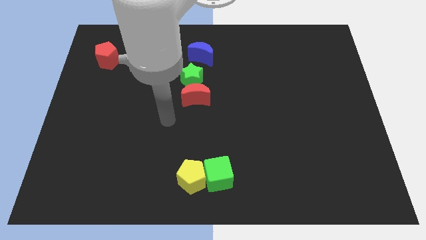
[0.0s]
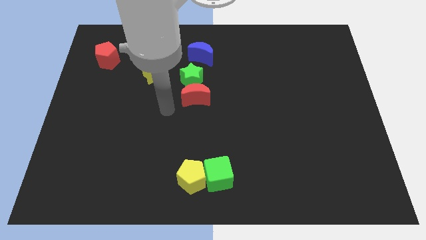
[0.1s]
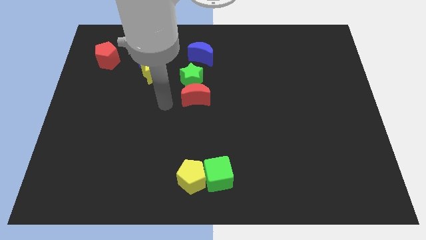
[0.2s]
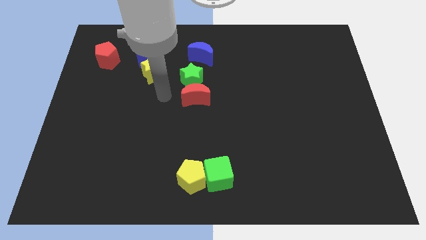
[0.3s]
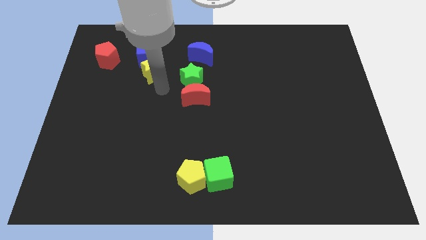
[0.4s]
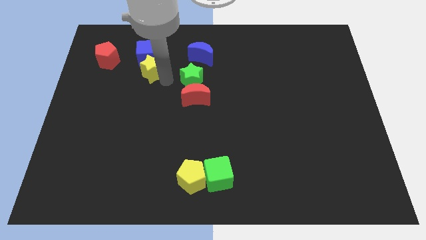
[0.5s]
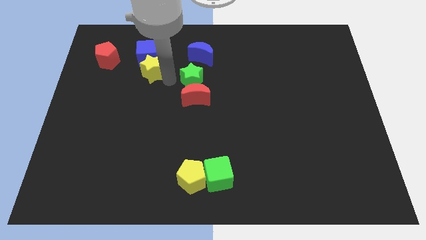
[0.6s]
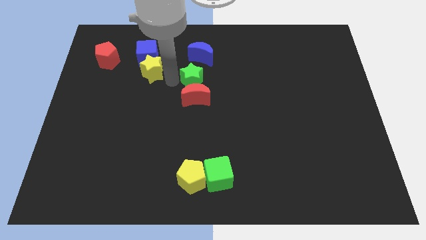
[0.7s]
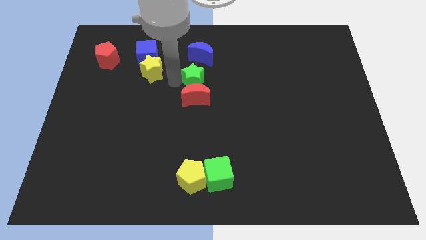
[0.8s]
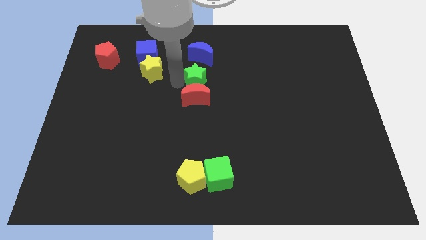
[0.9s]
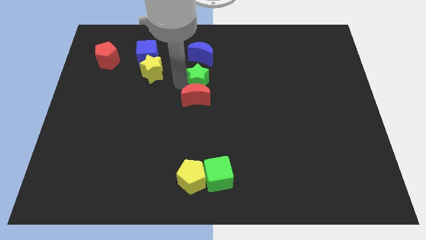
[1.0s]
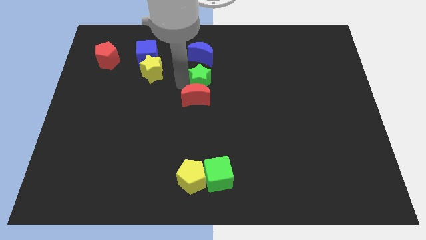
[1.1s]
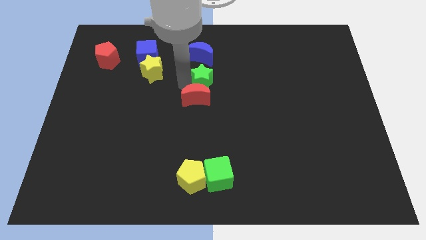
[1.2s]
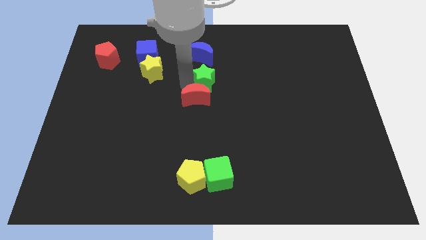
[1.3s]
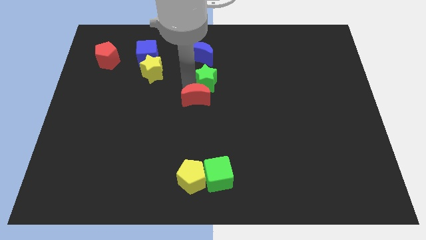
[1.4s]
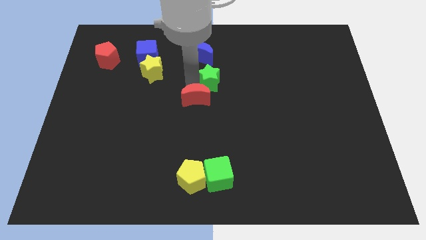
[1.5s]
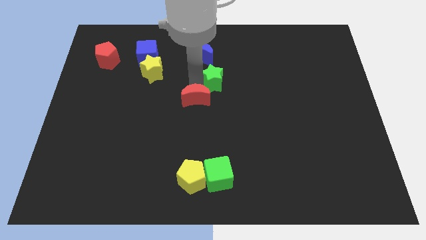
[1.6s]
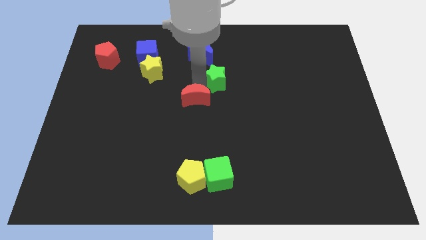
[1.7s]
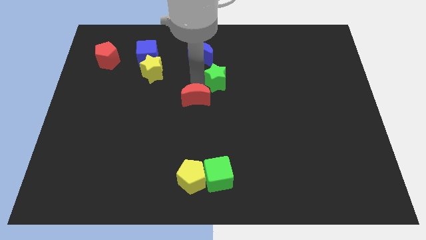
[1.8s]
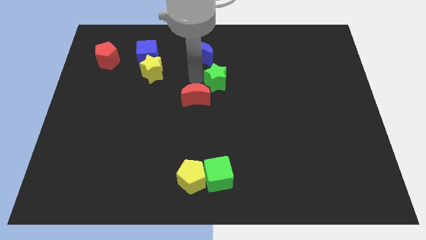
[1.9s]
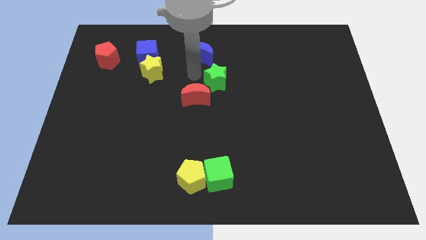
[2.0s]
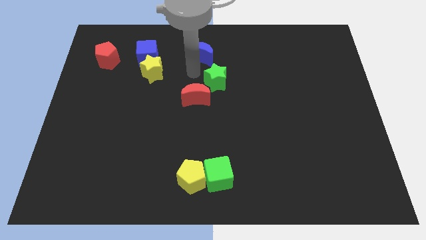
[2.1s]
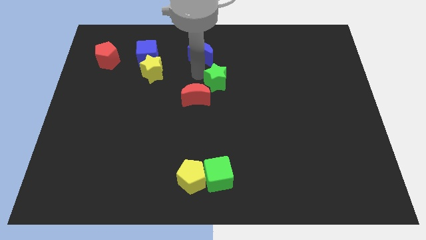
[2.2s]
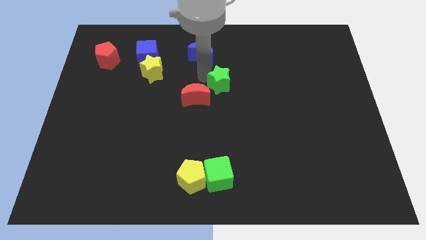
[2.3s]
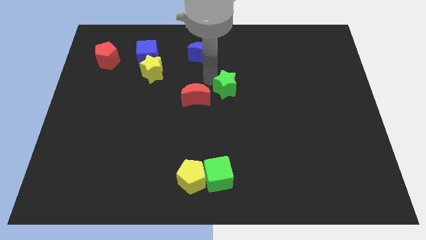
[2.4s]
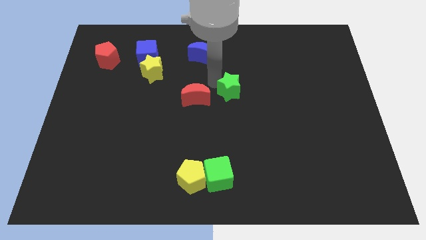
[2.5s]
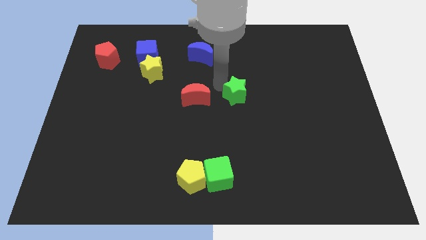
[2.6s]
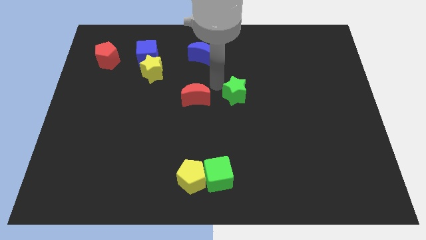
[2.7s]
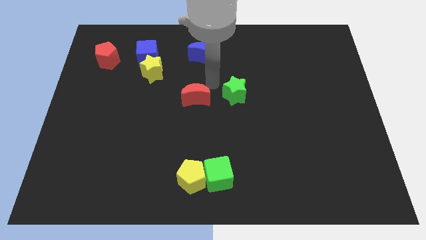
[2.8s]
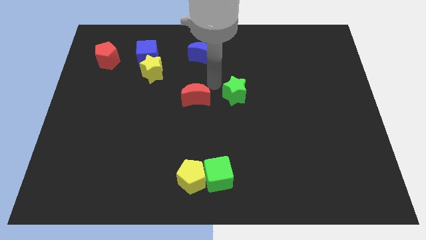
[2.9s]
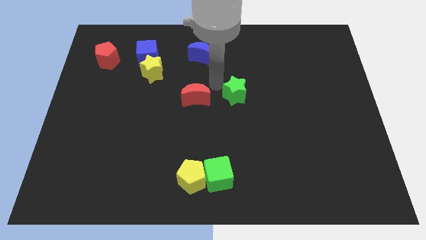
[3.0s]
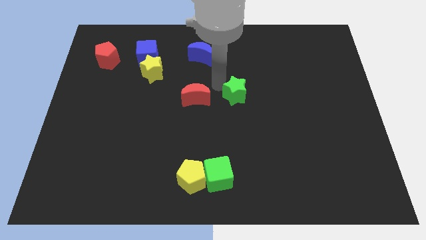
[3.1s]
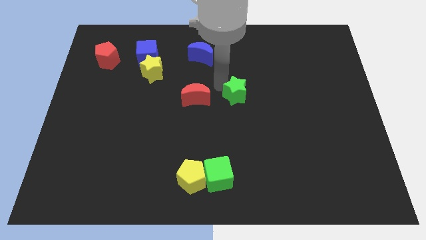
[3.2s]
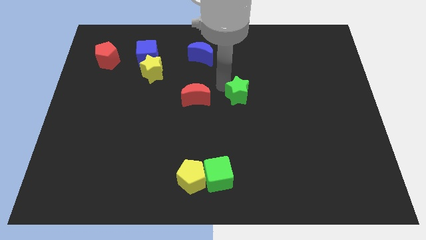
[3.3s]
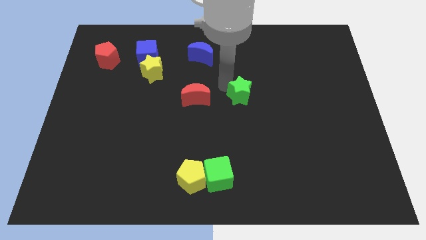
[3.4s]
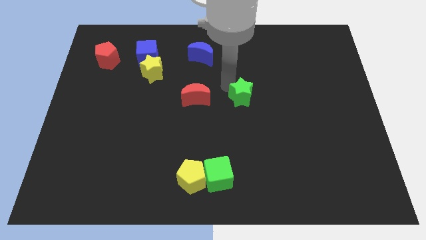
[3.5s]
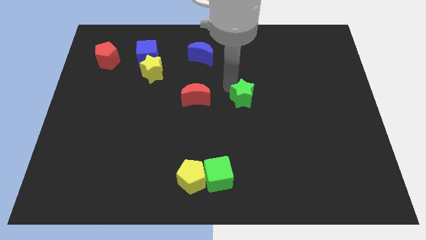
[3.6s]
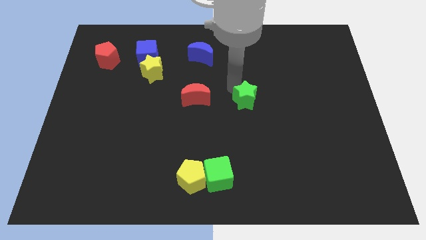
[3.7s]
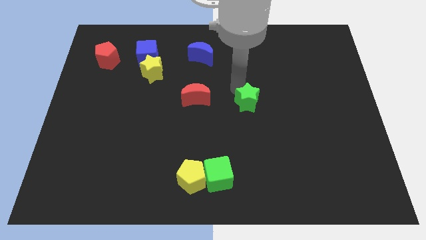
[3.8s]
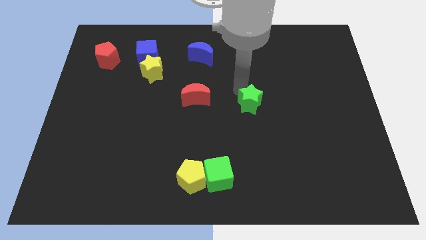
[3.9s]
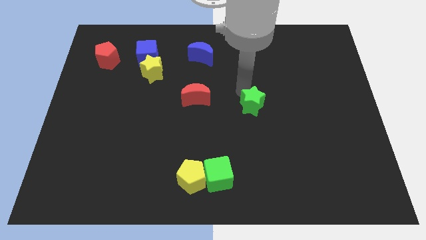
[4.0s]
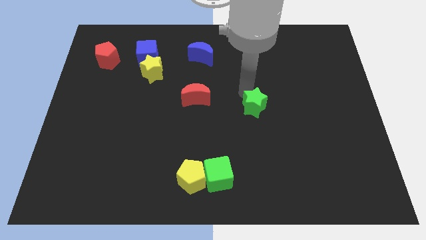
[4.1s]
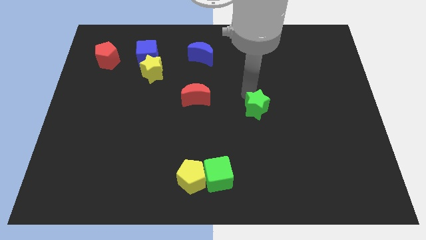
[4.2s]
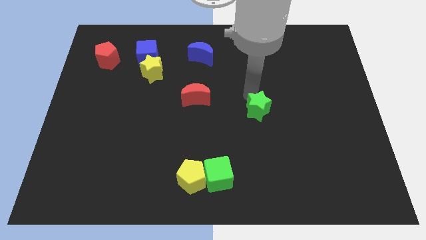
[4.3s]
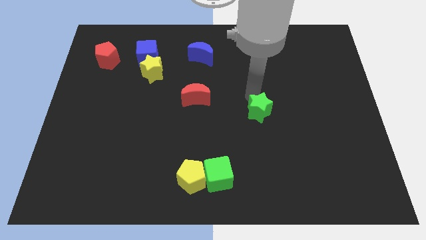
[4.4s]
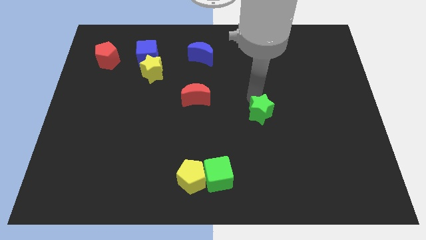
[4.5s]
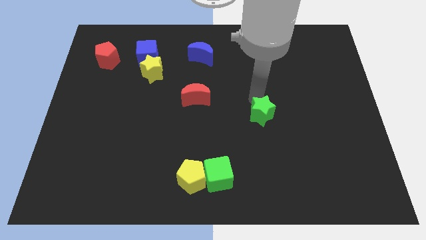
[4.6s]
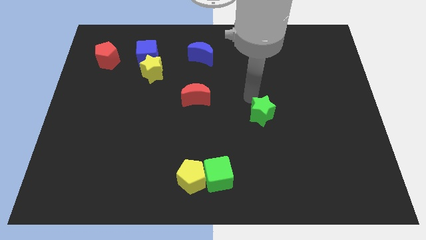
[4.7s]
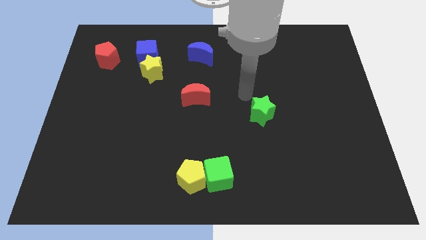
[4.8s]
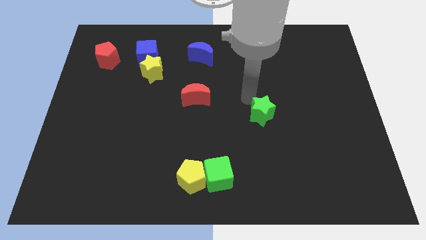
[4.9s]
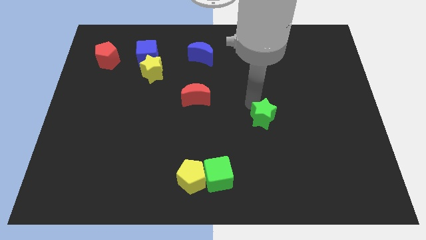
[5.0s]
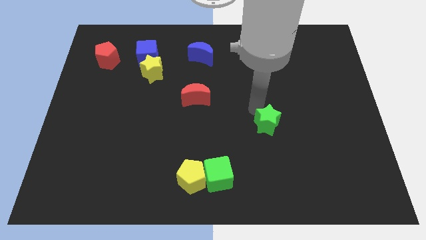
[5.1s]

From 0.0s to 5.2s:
push the green star down and then to the right

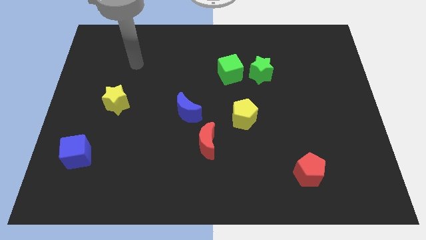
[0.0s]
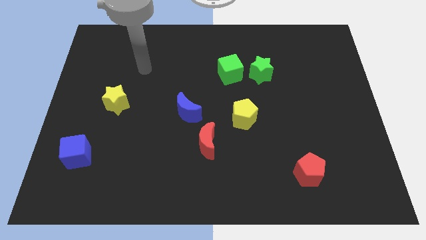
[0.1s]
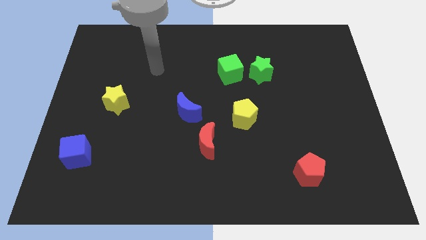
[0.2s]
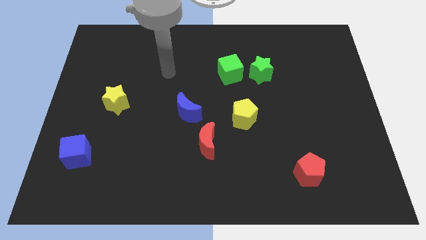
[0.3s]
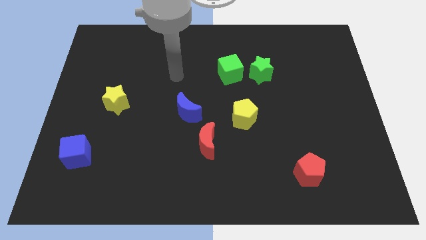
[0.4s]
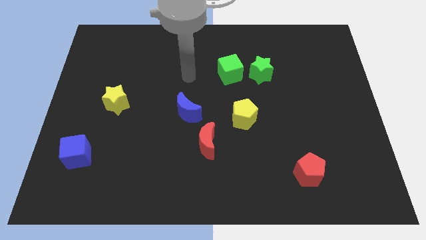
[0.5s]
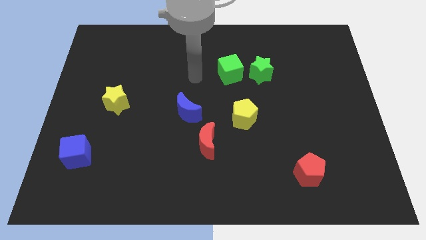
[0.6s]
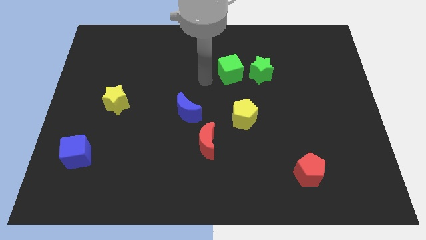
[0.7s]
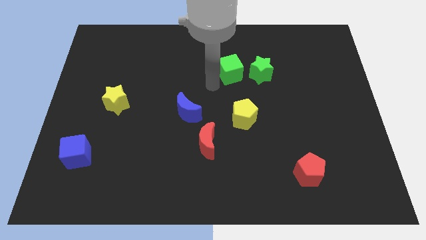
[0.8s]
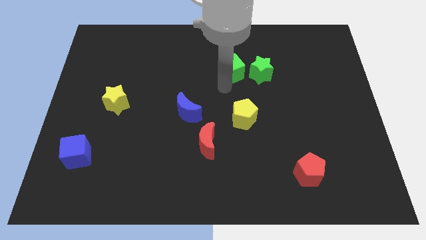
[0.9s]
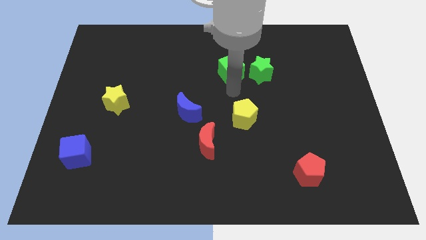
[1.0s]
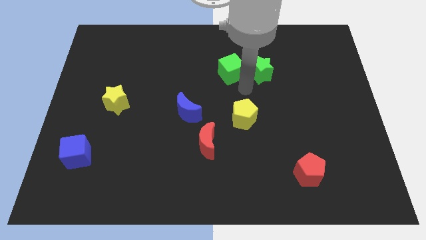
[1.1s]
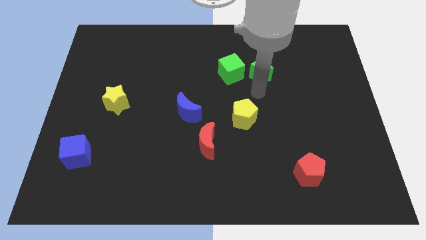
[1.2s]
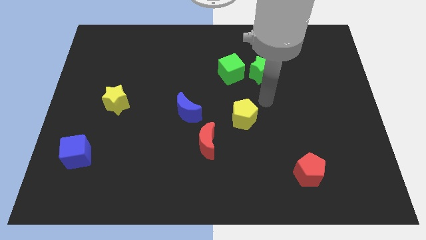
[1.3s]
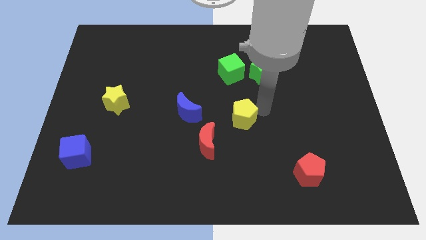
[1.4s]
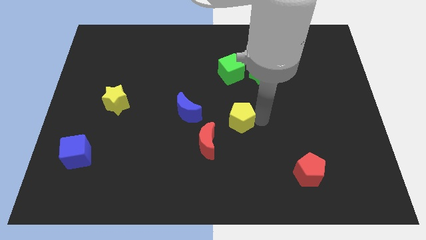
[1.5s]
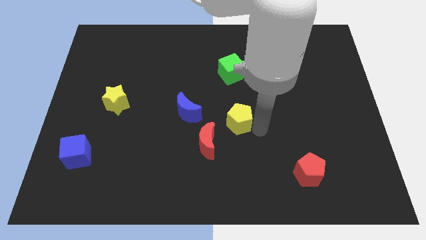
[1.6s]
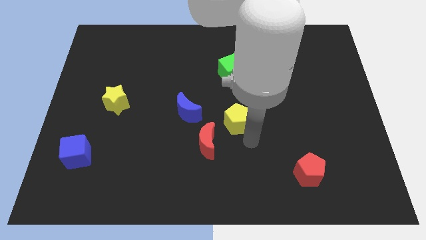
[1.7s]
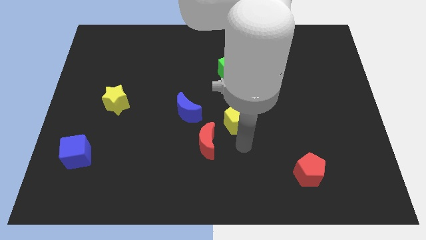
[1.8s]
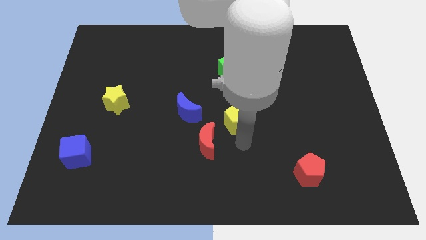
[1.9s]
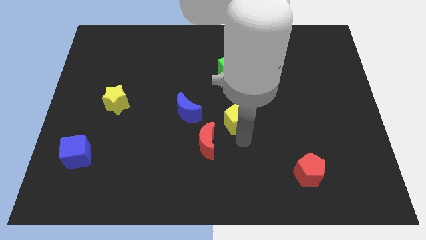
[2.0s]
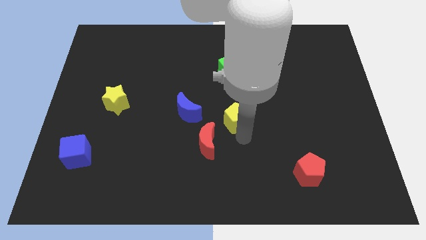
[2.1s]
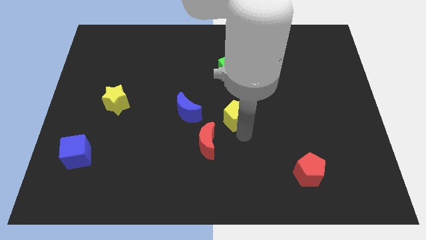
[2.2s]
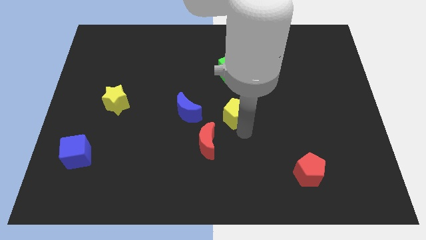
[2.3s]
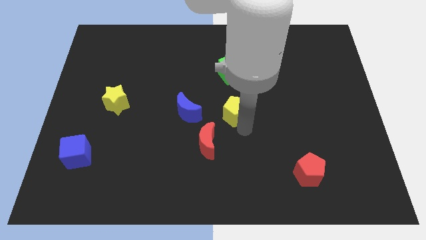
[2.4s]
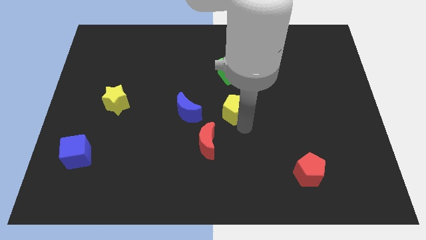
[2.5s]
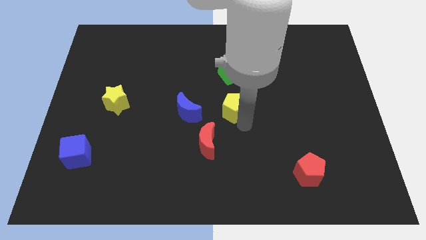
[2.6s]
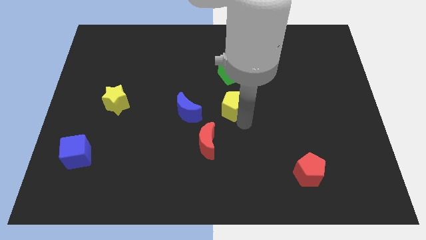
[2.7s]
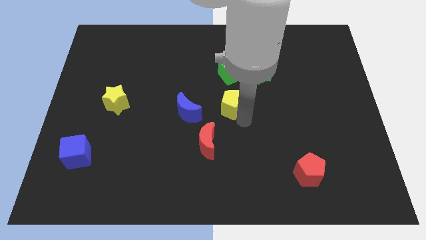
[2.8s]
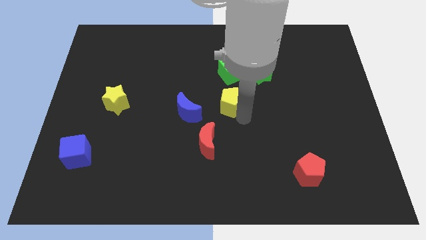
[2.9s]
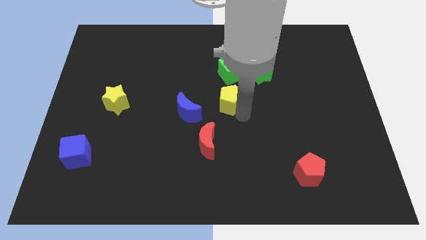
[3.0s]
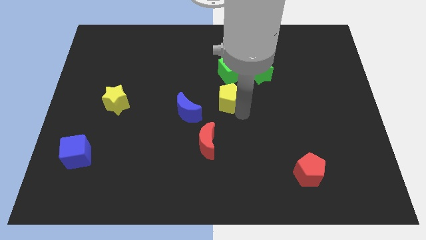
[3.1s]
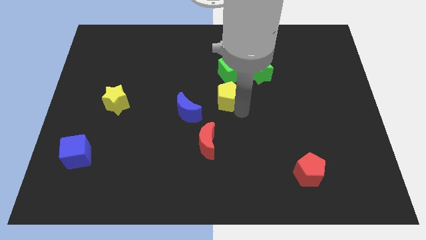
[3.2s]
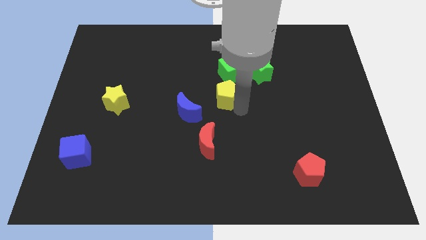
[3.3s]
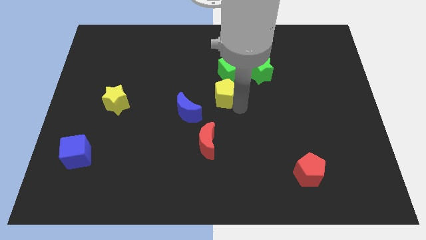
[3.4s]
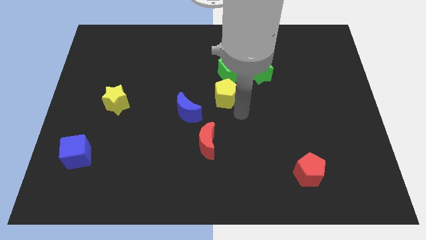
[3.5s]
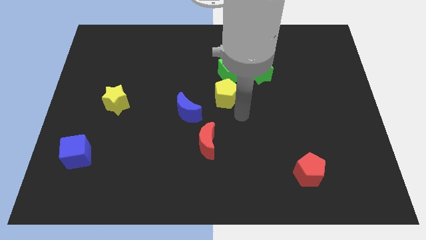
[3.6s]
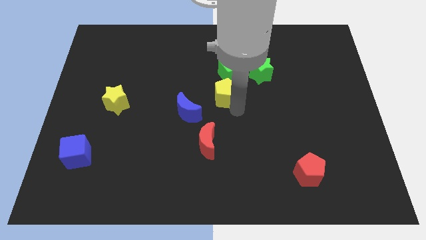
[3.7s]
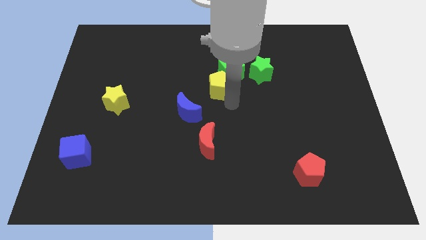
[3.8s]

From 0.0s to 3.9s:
slightly slide the yellow pentagon up
